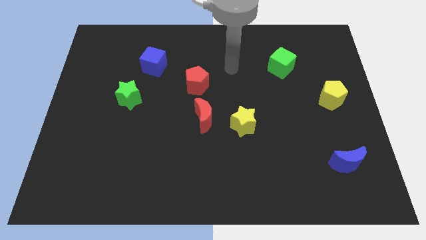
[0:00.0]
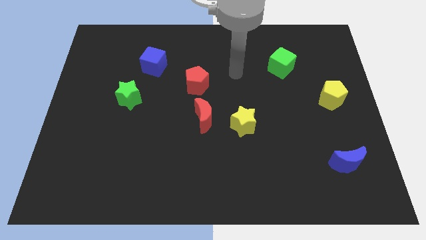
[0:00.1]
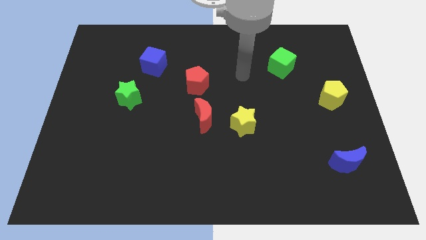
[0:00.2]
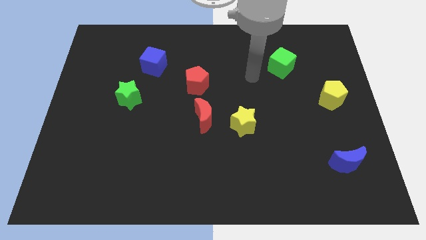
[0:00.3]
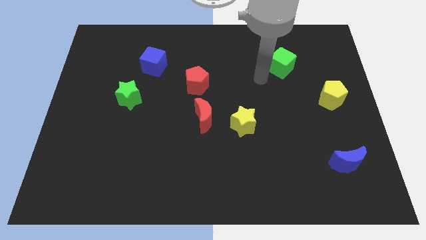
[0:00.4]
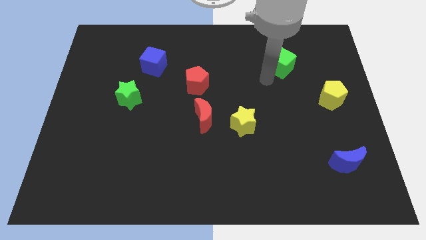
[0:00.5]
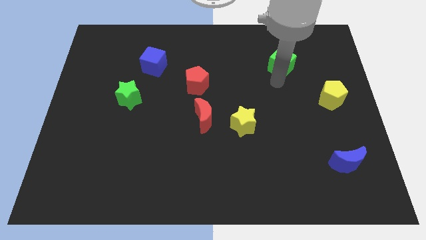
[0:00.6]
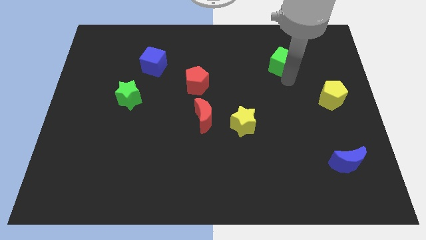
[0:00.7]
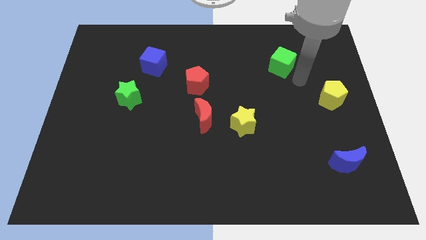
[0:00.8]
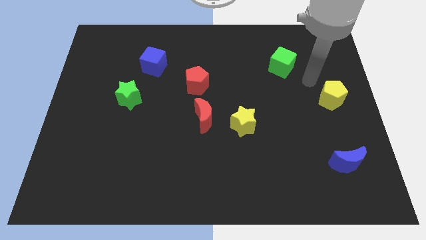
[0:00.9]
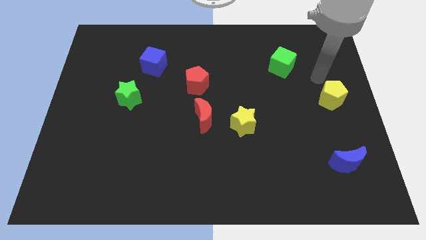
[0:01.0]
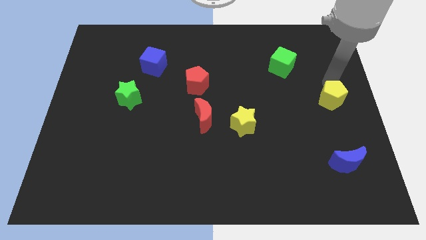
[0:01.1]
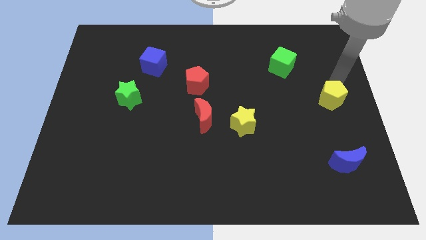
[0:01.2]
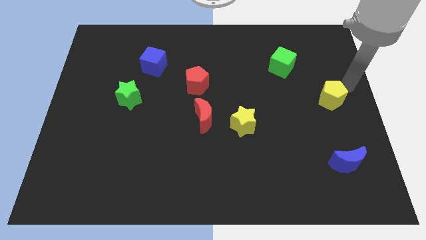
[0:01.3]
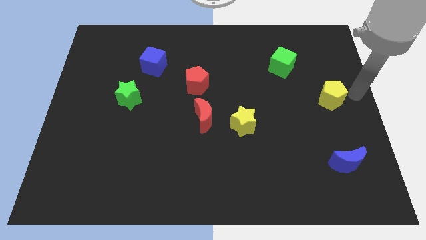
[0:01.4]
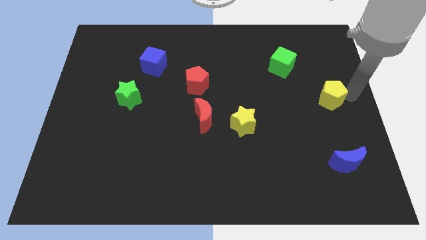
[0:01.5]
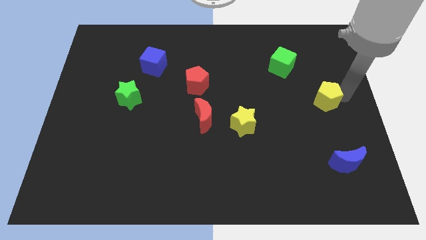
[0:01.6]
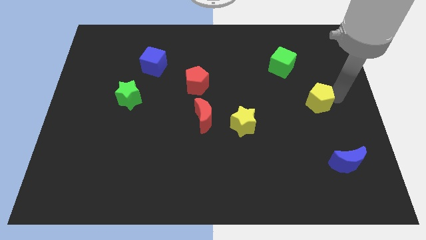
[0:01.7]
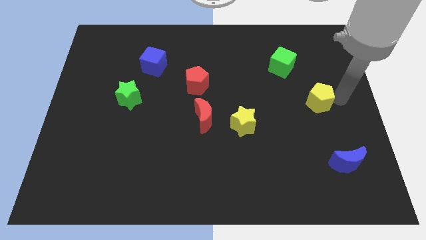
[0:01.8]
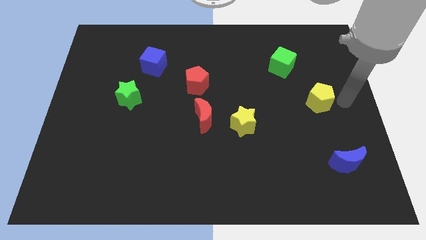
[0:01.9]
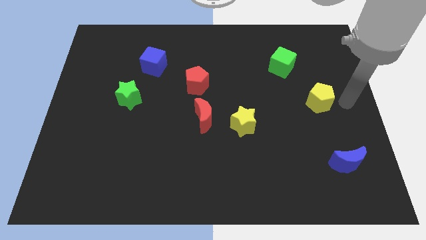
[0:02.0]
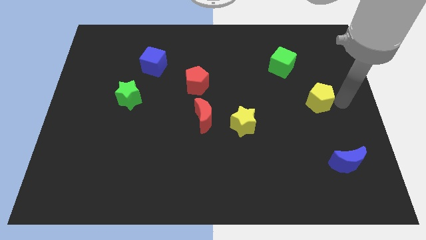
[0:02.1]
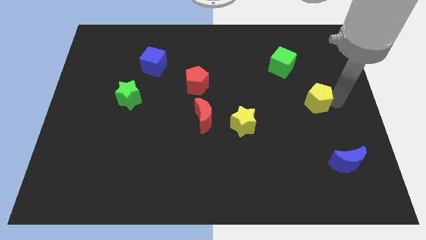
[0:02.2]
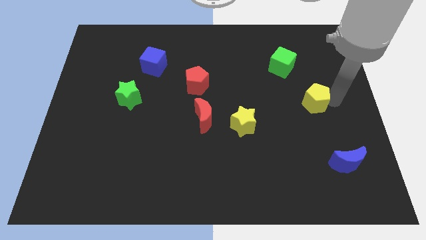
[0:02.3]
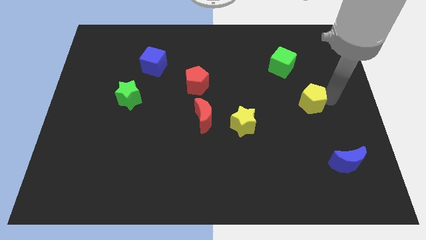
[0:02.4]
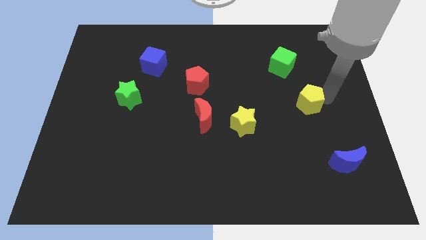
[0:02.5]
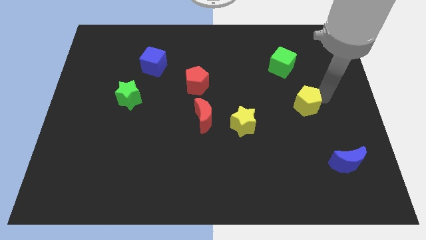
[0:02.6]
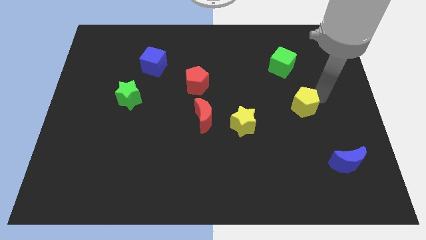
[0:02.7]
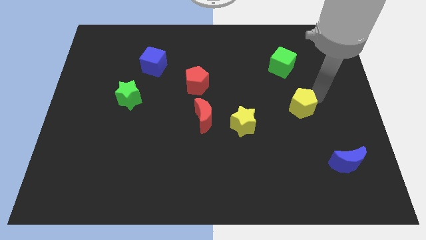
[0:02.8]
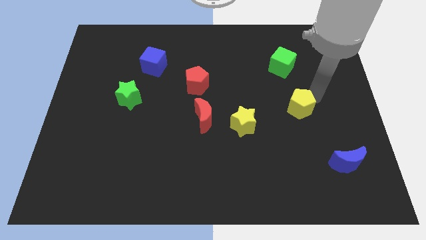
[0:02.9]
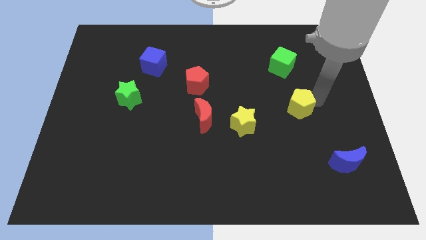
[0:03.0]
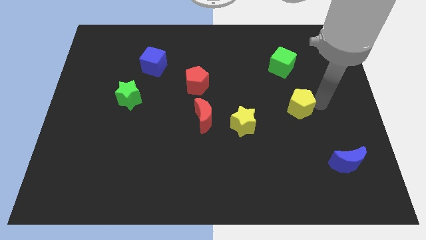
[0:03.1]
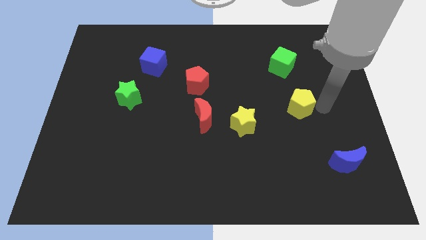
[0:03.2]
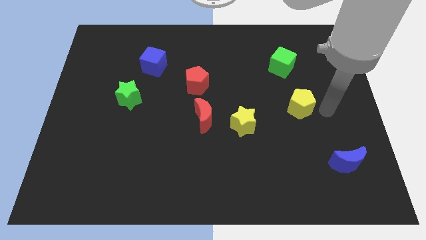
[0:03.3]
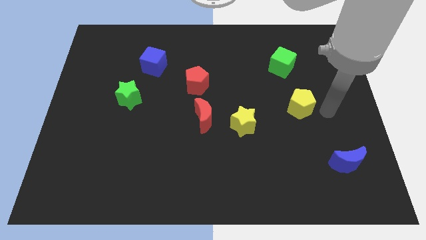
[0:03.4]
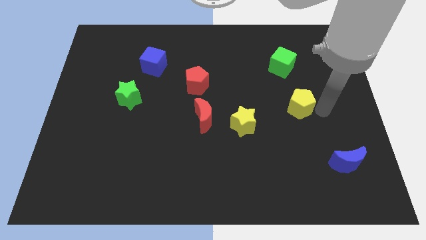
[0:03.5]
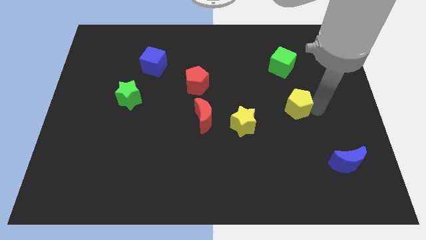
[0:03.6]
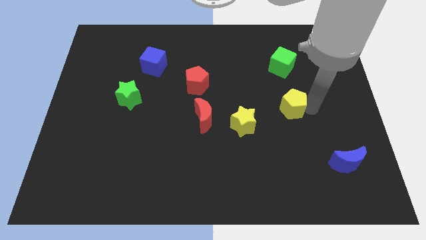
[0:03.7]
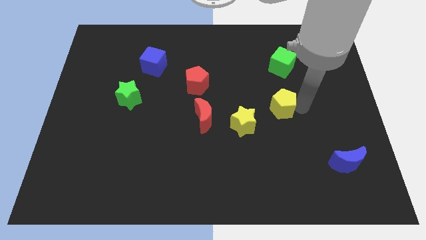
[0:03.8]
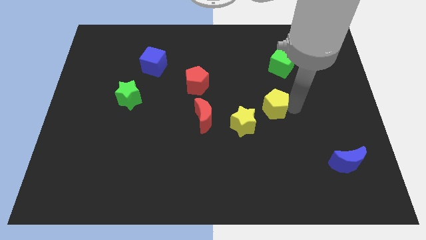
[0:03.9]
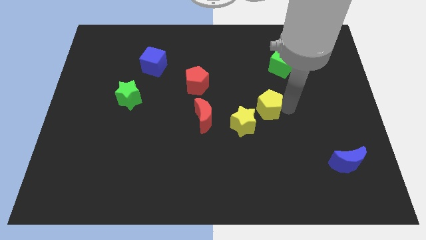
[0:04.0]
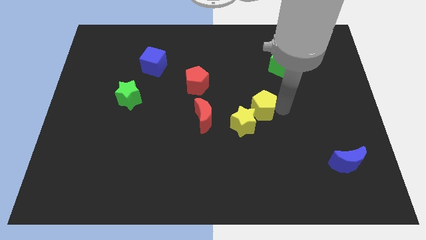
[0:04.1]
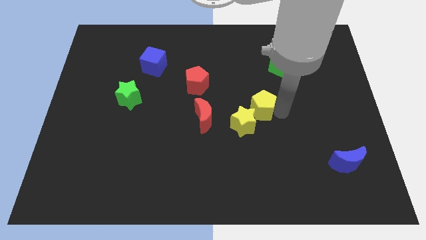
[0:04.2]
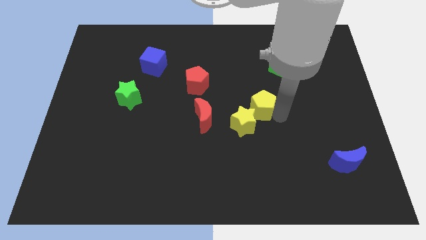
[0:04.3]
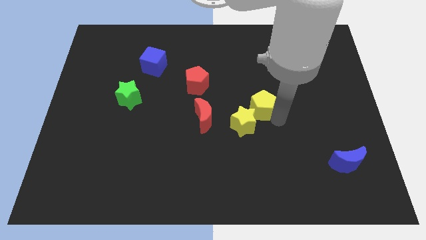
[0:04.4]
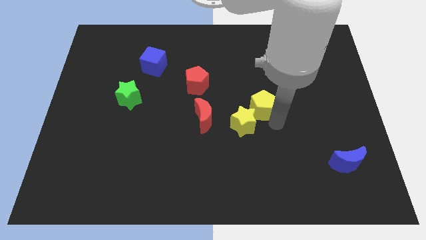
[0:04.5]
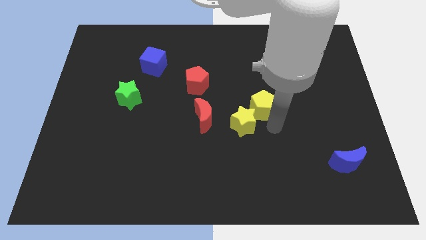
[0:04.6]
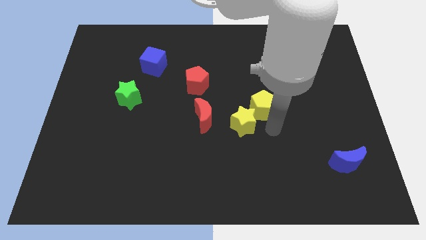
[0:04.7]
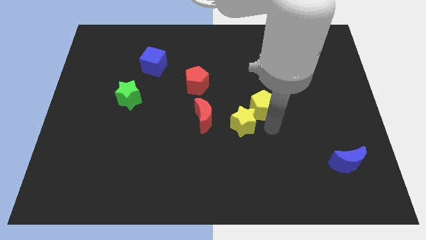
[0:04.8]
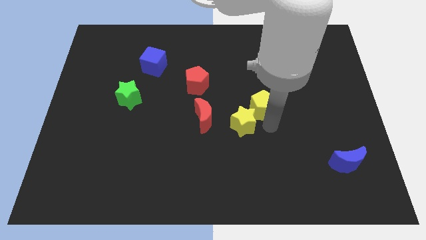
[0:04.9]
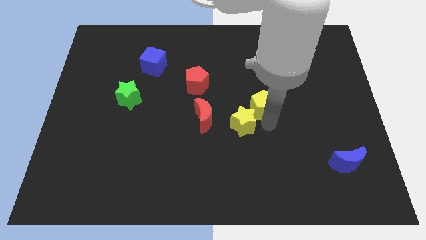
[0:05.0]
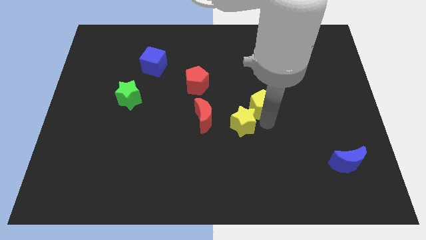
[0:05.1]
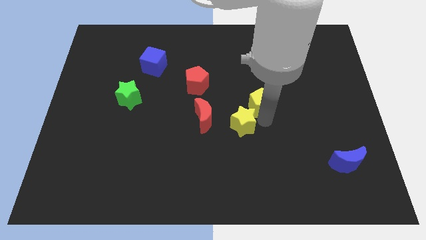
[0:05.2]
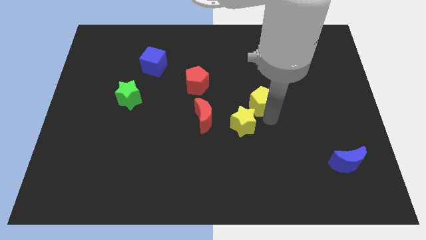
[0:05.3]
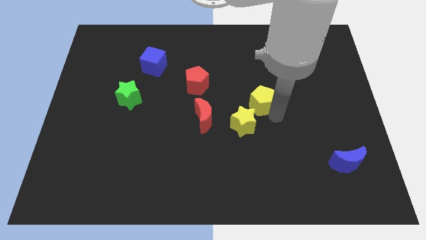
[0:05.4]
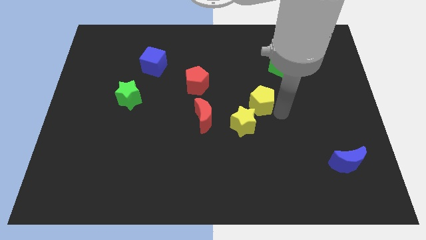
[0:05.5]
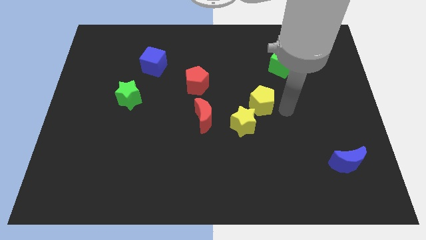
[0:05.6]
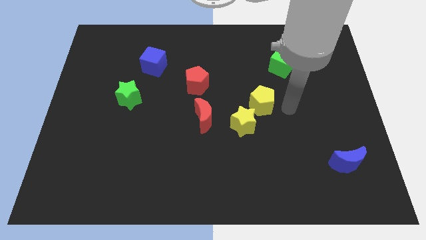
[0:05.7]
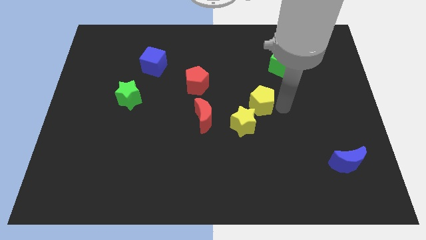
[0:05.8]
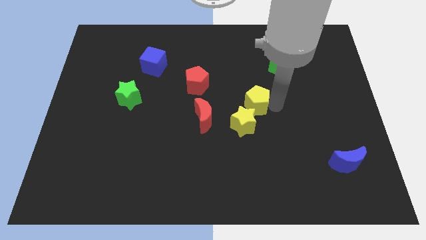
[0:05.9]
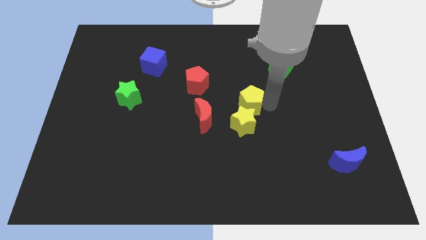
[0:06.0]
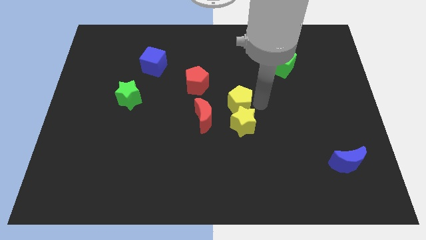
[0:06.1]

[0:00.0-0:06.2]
move the yellow pentagon to the bottom right of the red pentagon

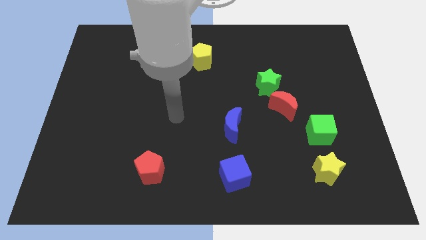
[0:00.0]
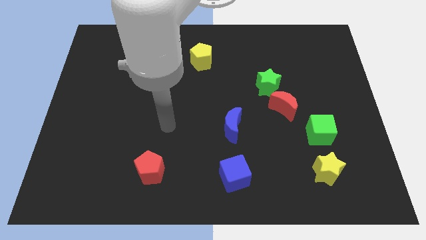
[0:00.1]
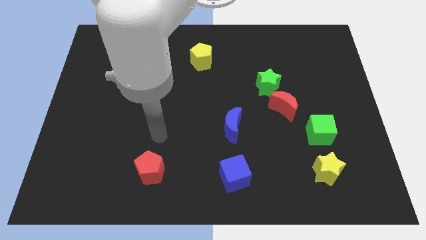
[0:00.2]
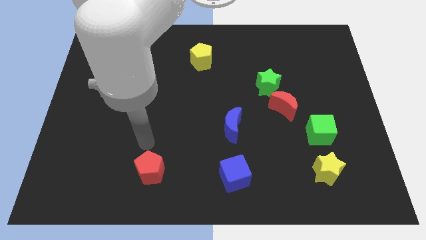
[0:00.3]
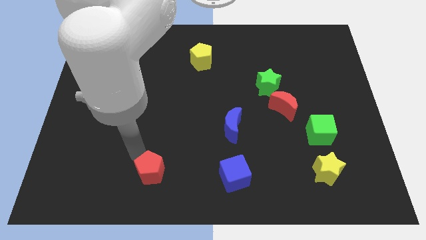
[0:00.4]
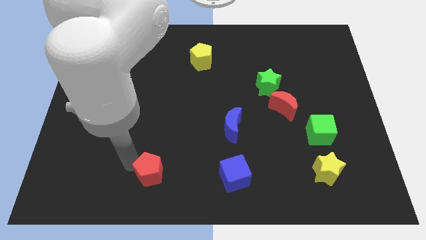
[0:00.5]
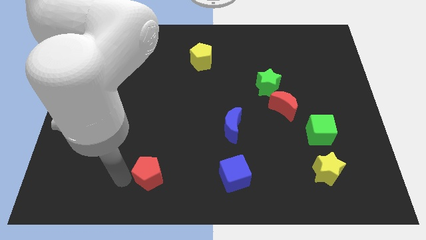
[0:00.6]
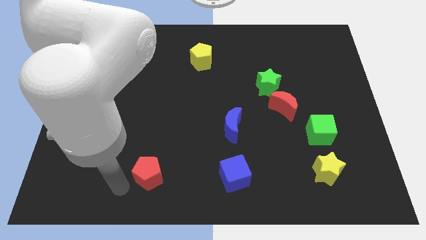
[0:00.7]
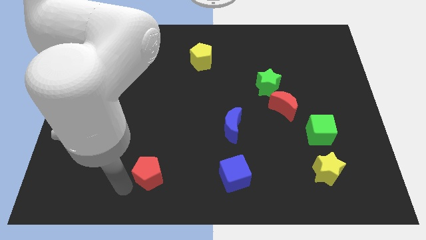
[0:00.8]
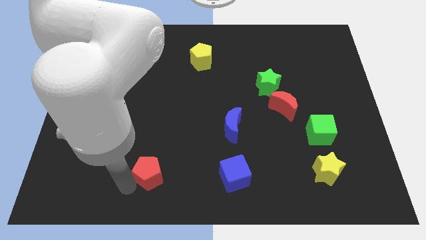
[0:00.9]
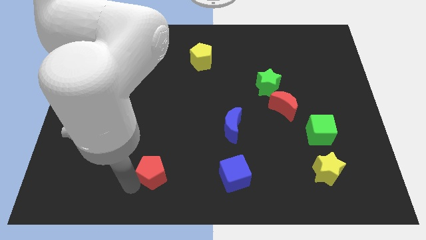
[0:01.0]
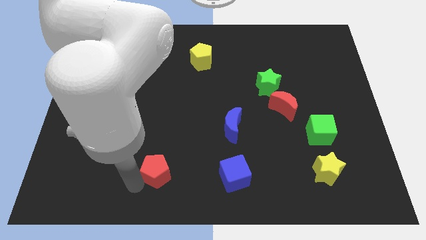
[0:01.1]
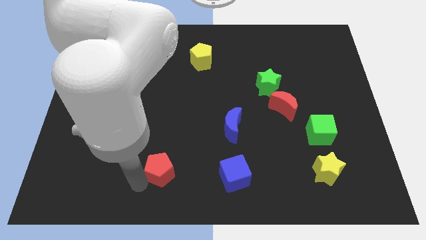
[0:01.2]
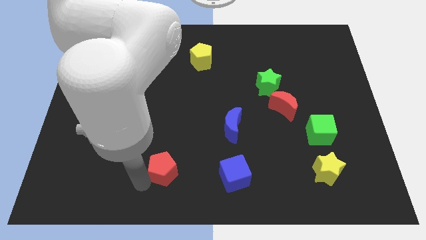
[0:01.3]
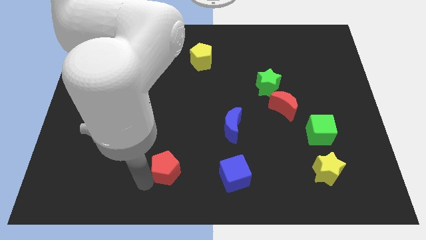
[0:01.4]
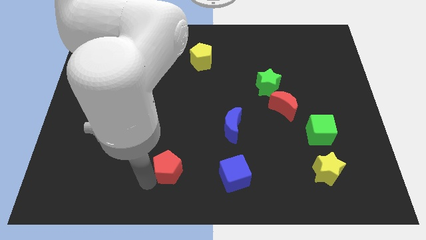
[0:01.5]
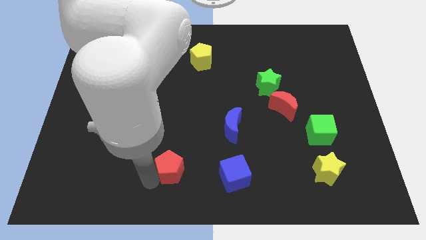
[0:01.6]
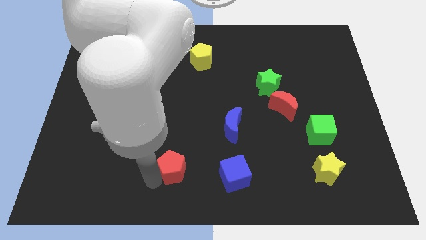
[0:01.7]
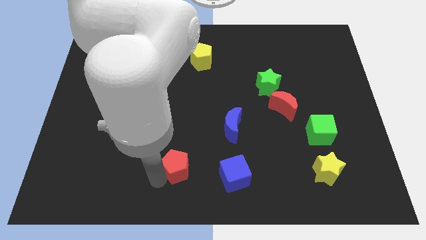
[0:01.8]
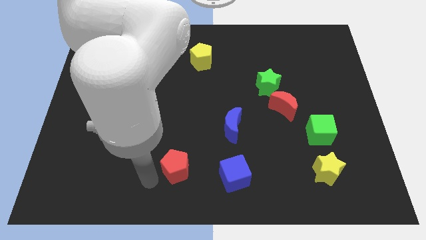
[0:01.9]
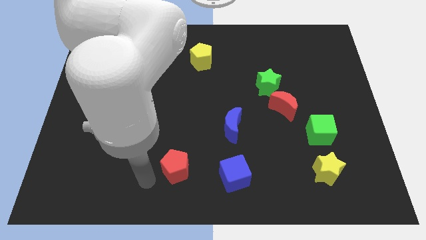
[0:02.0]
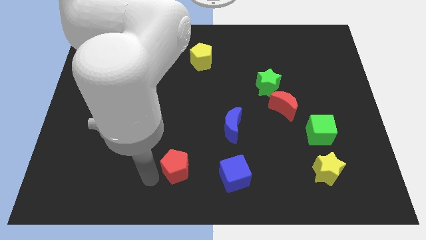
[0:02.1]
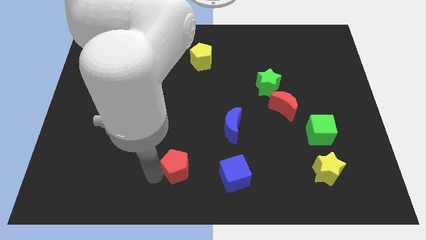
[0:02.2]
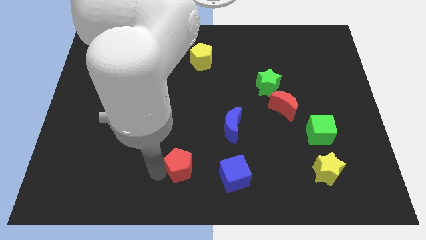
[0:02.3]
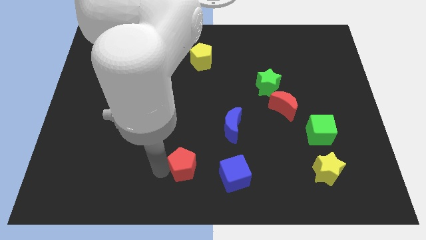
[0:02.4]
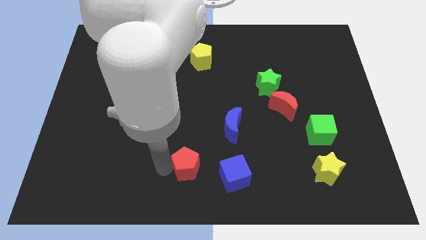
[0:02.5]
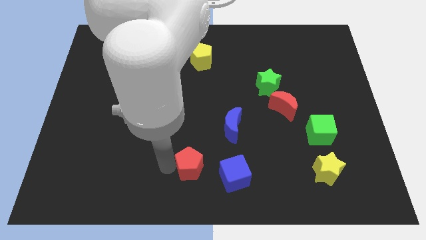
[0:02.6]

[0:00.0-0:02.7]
slide the red pentagon diagonally up and to the left of the blue cube
